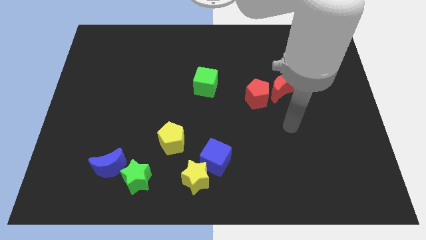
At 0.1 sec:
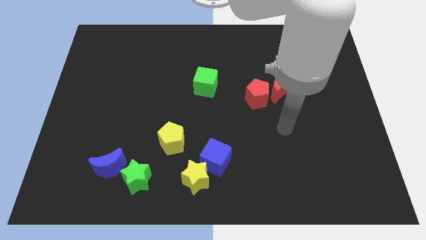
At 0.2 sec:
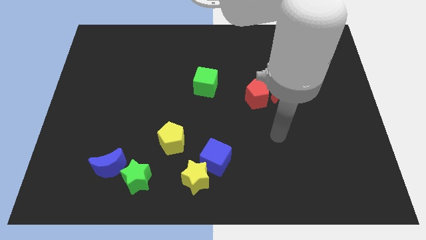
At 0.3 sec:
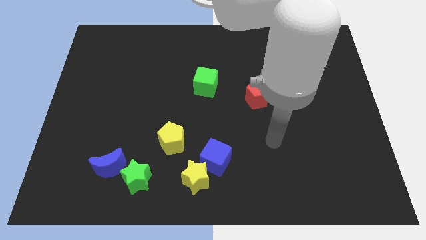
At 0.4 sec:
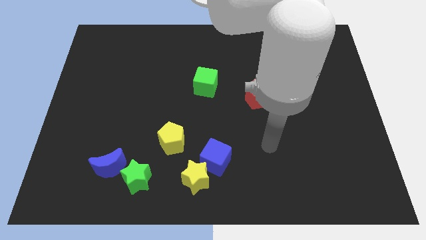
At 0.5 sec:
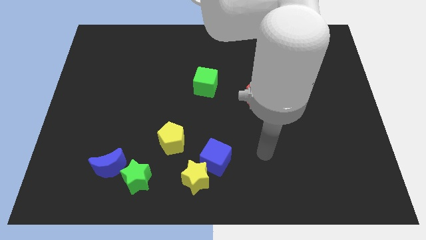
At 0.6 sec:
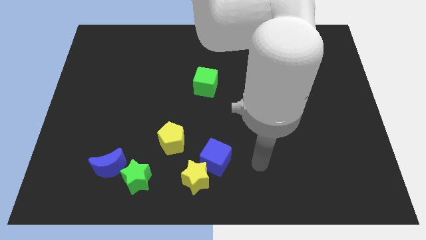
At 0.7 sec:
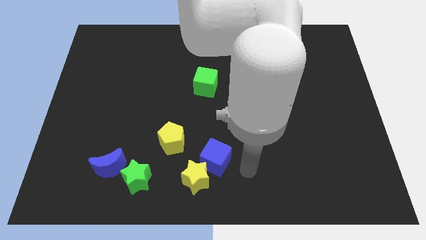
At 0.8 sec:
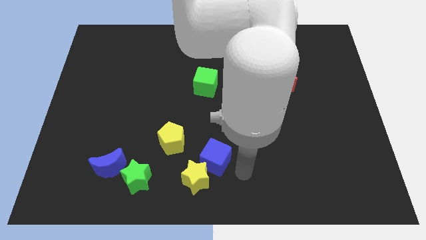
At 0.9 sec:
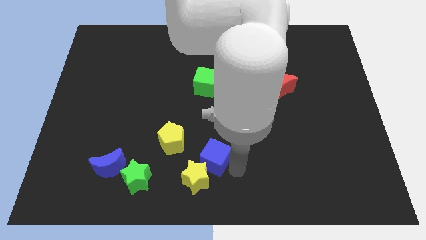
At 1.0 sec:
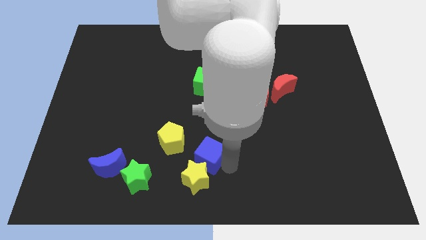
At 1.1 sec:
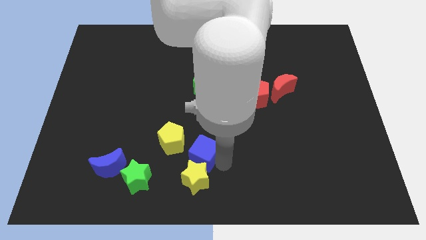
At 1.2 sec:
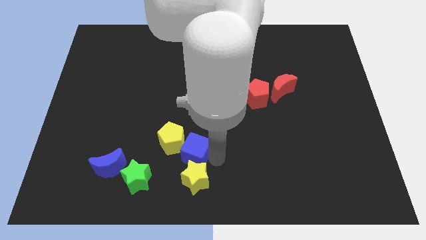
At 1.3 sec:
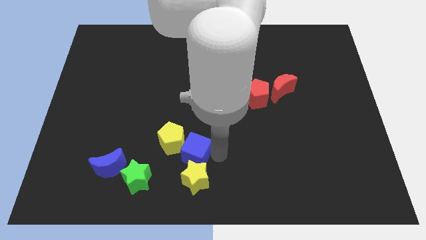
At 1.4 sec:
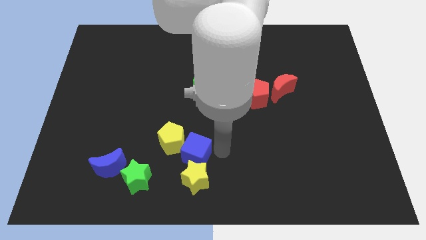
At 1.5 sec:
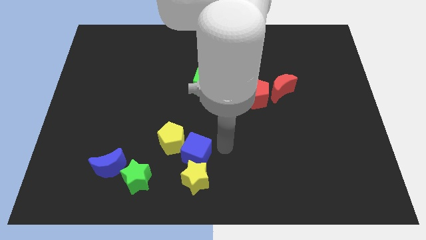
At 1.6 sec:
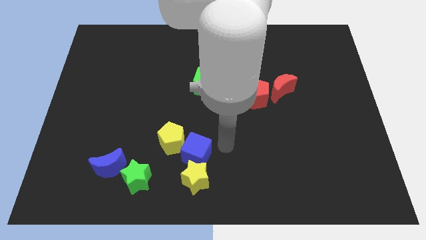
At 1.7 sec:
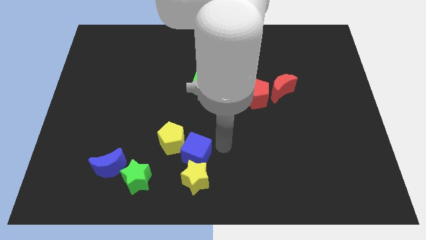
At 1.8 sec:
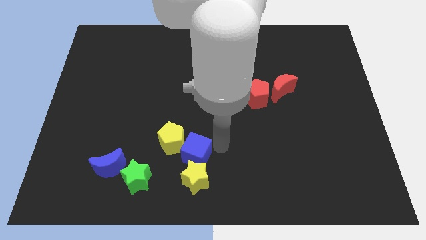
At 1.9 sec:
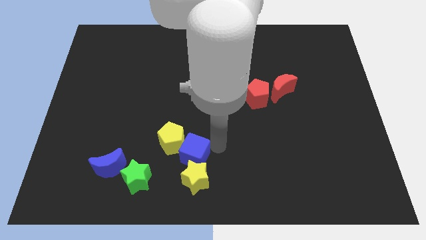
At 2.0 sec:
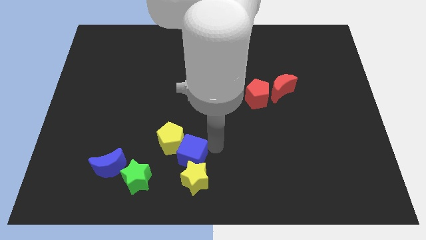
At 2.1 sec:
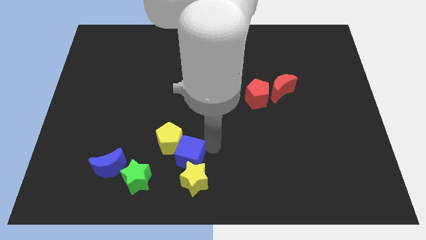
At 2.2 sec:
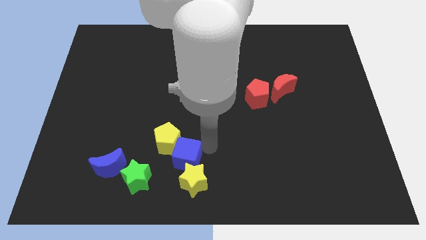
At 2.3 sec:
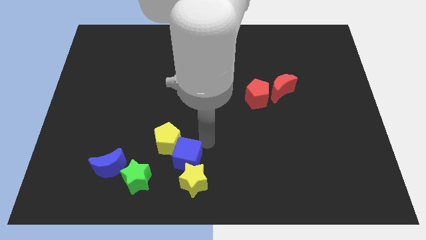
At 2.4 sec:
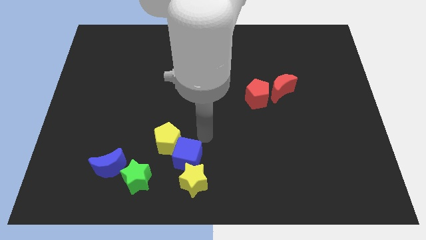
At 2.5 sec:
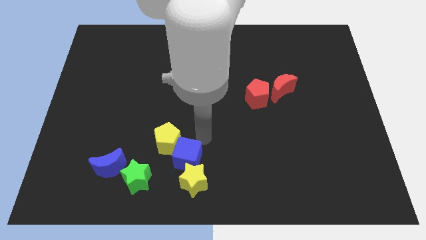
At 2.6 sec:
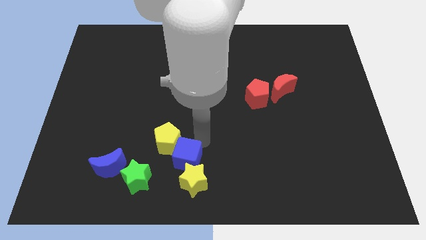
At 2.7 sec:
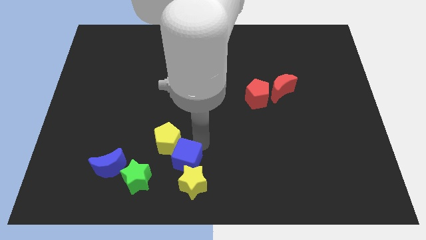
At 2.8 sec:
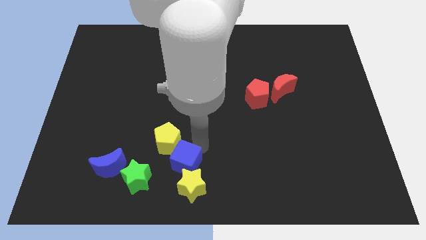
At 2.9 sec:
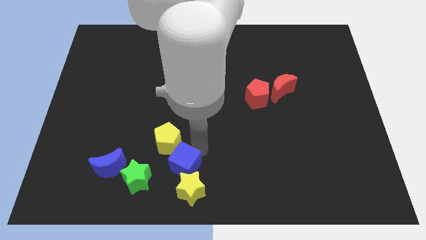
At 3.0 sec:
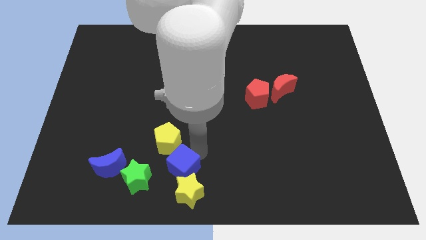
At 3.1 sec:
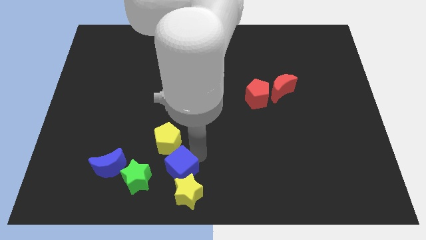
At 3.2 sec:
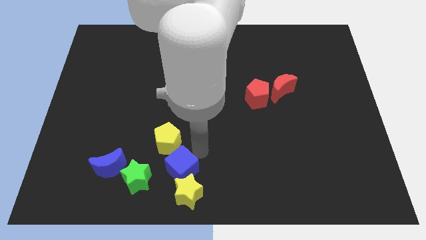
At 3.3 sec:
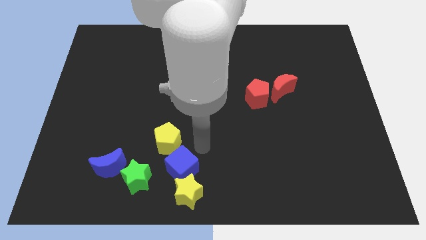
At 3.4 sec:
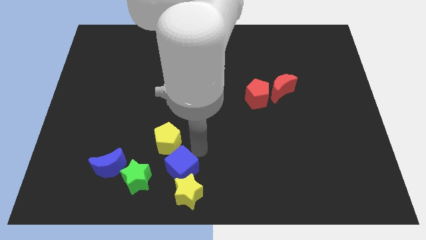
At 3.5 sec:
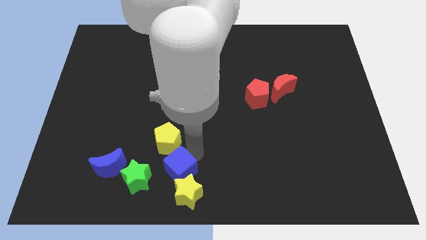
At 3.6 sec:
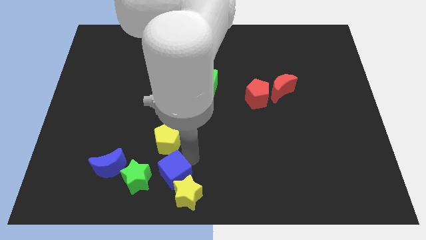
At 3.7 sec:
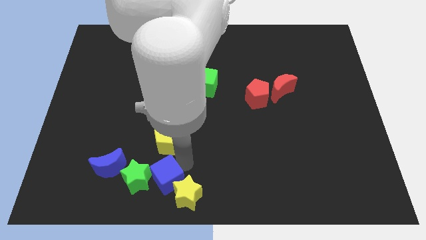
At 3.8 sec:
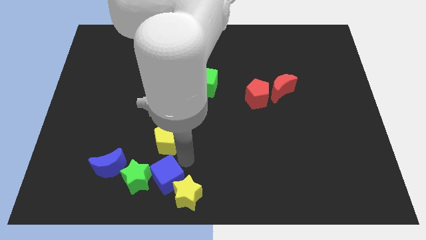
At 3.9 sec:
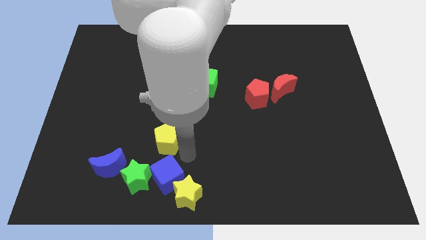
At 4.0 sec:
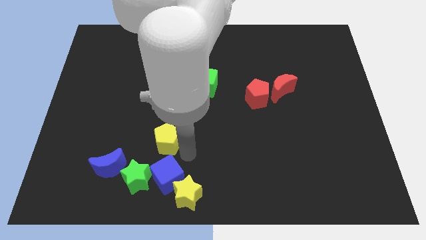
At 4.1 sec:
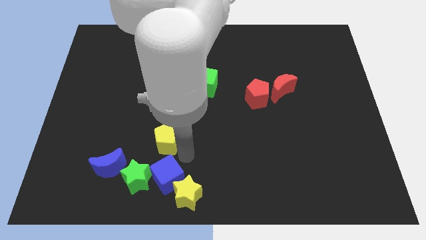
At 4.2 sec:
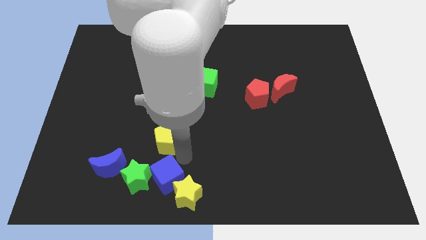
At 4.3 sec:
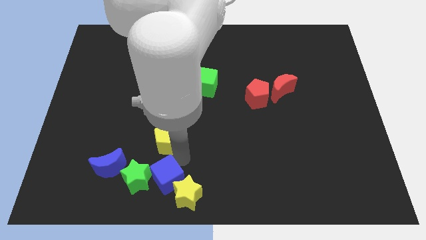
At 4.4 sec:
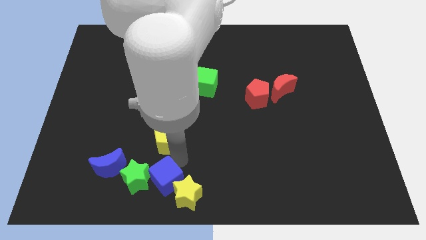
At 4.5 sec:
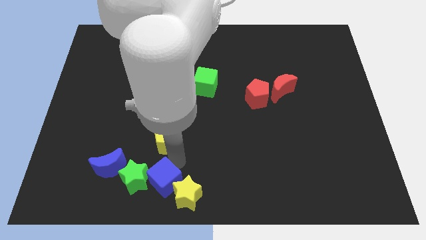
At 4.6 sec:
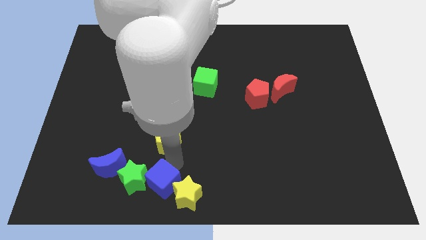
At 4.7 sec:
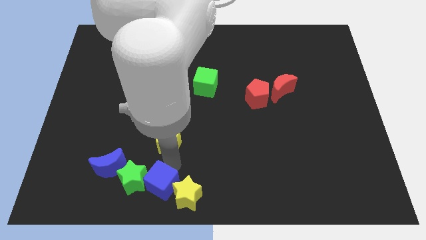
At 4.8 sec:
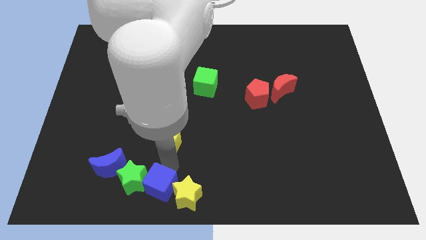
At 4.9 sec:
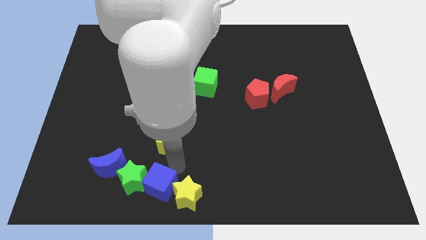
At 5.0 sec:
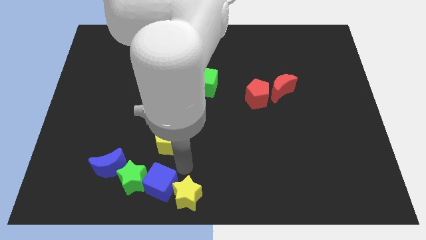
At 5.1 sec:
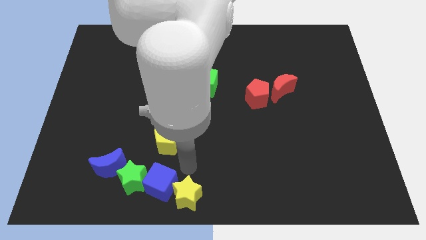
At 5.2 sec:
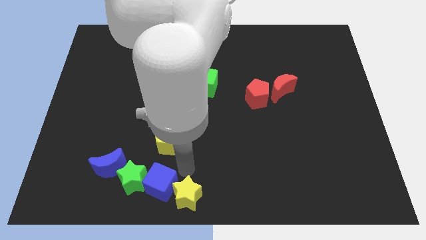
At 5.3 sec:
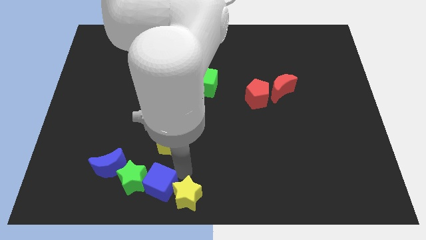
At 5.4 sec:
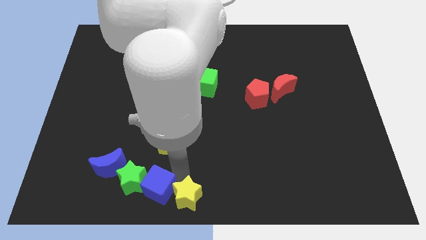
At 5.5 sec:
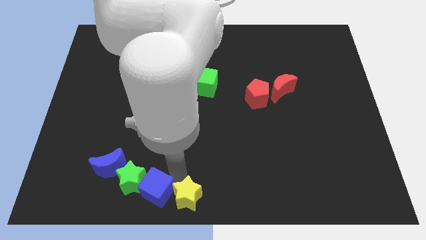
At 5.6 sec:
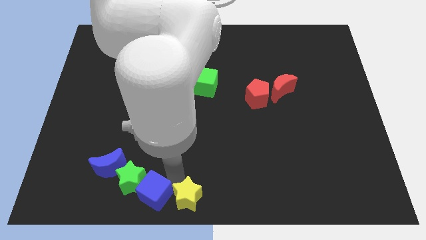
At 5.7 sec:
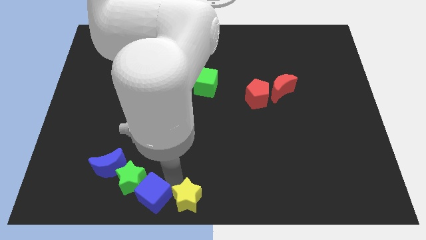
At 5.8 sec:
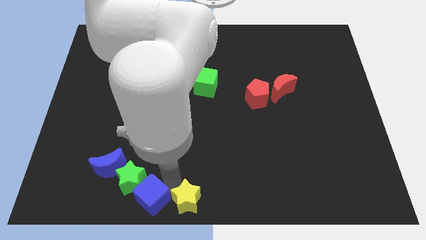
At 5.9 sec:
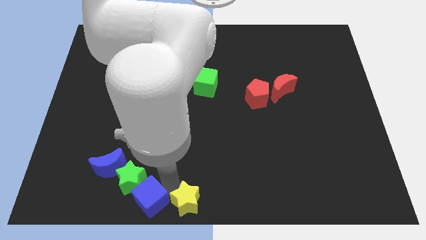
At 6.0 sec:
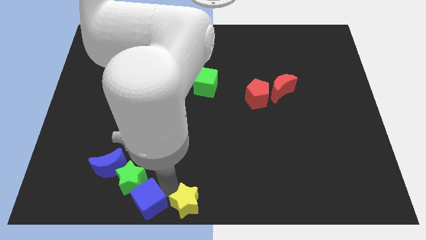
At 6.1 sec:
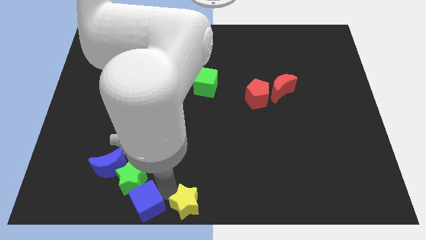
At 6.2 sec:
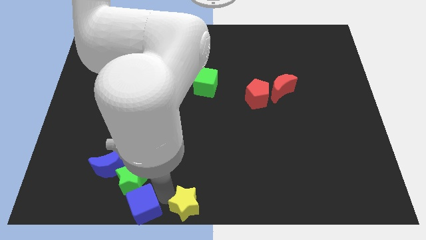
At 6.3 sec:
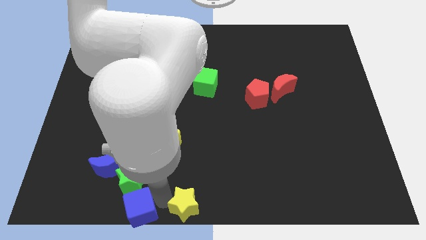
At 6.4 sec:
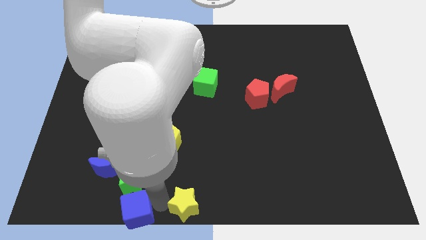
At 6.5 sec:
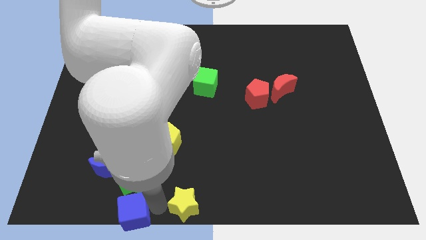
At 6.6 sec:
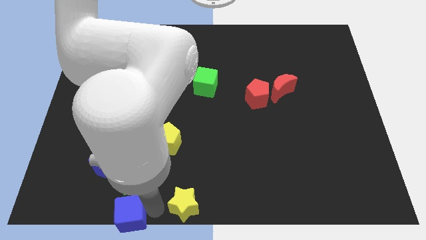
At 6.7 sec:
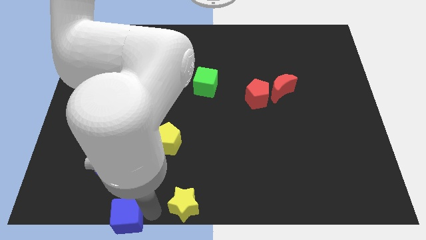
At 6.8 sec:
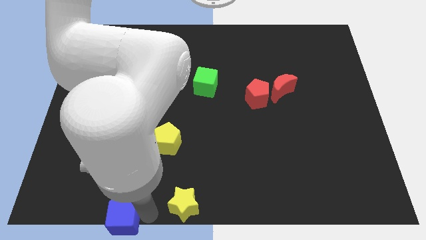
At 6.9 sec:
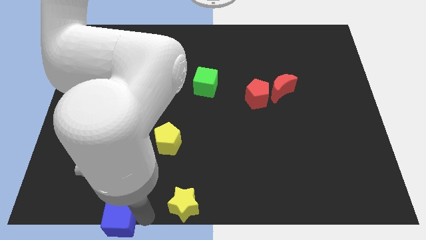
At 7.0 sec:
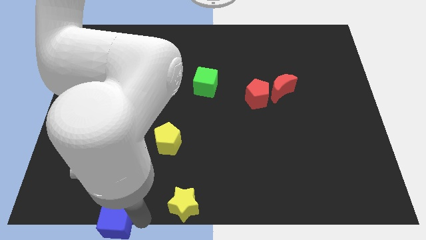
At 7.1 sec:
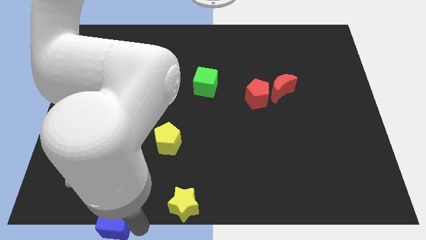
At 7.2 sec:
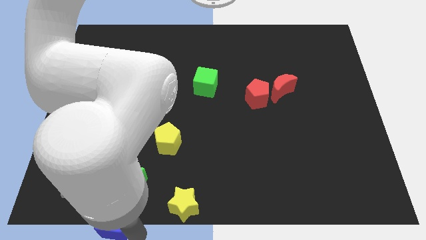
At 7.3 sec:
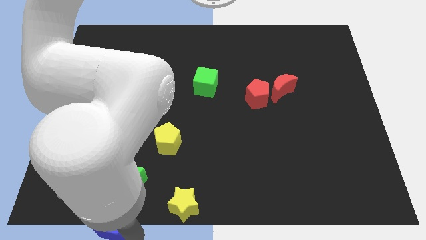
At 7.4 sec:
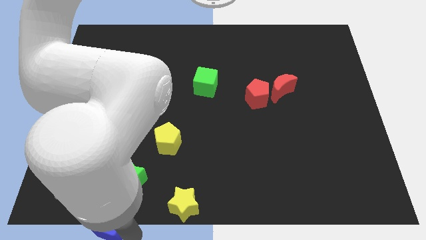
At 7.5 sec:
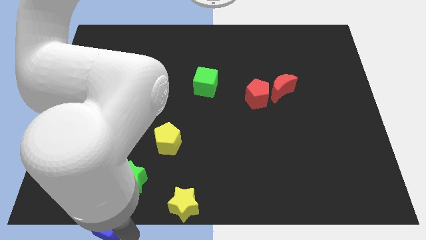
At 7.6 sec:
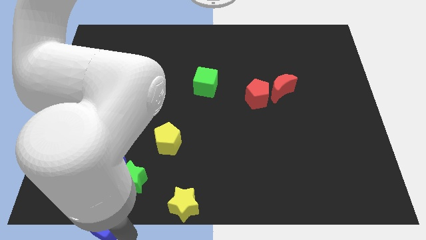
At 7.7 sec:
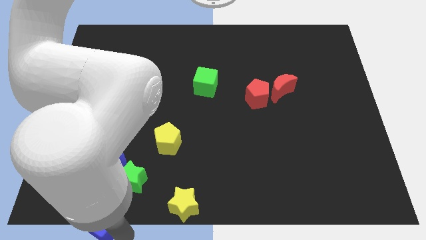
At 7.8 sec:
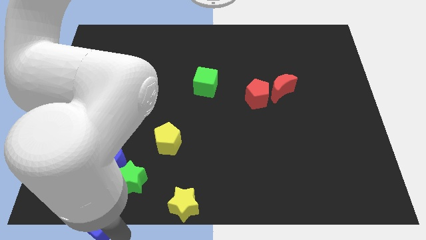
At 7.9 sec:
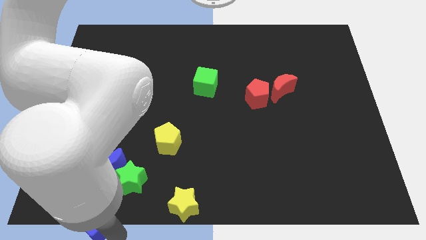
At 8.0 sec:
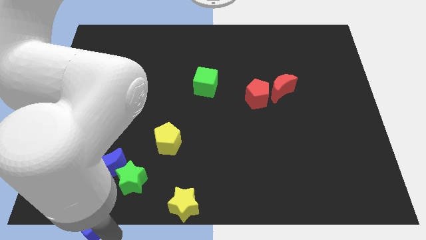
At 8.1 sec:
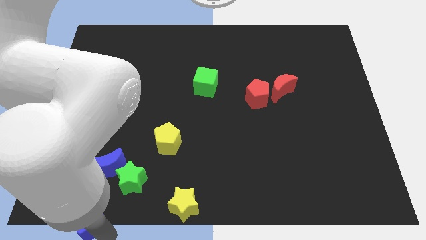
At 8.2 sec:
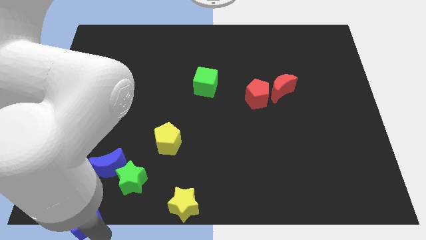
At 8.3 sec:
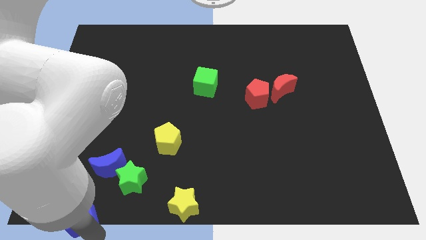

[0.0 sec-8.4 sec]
move the blue cube to the lower left corner
